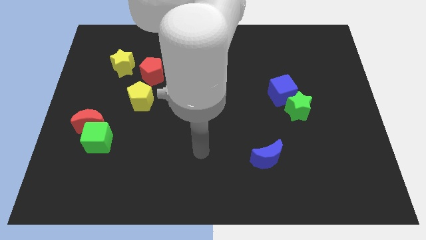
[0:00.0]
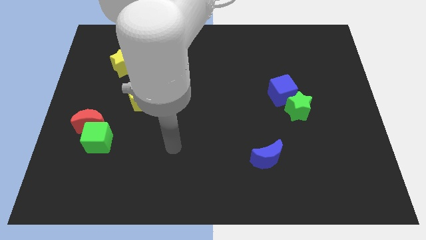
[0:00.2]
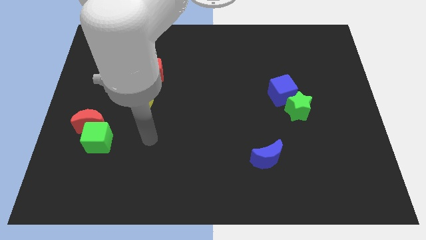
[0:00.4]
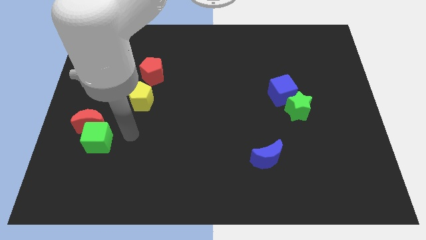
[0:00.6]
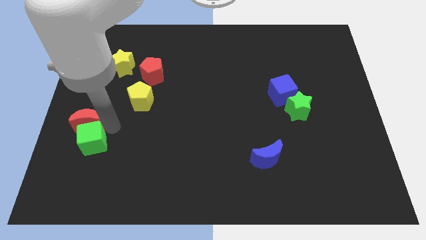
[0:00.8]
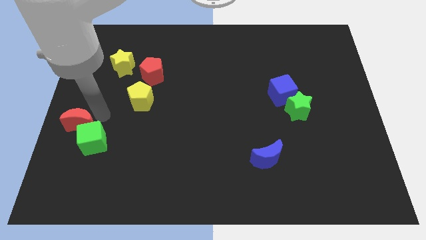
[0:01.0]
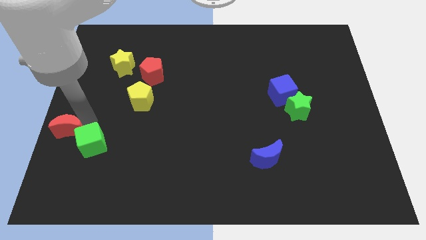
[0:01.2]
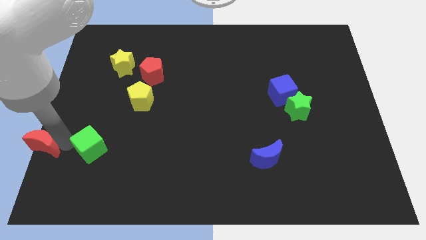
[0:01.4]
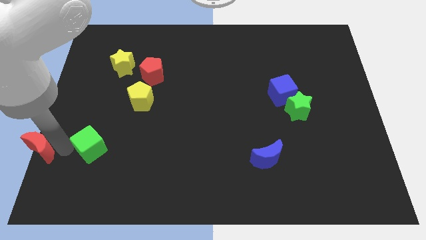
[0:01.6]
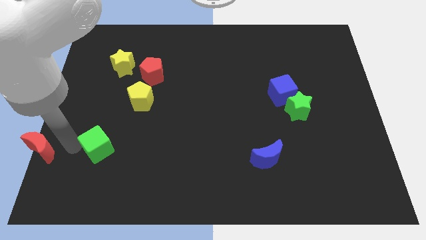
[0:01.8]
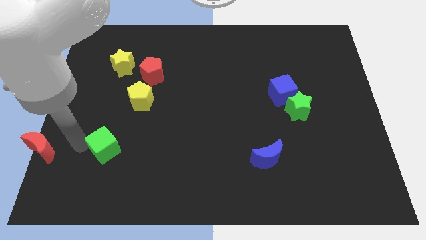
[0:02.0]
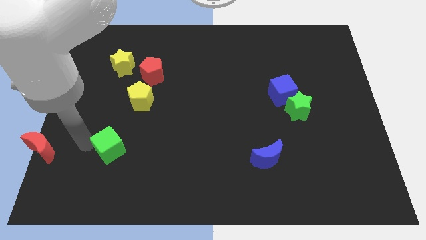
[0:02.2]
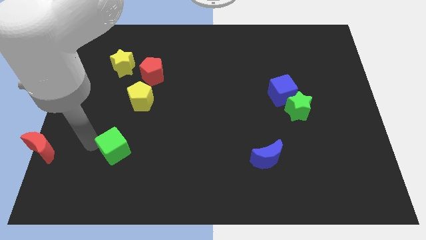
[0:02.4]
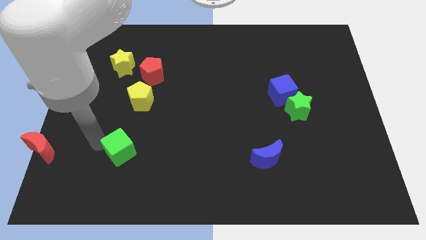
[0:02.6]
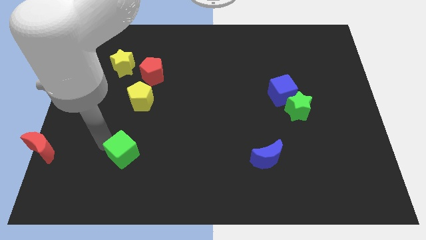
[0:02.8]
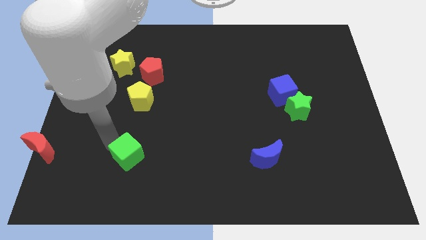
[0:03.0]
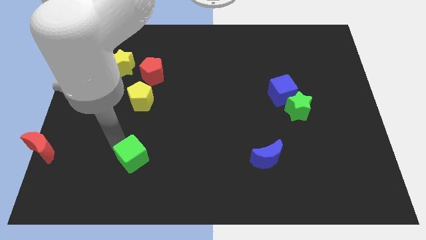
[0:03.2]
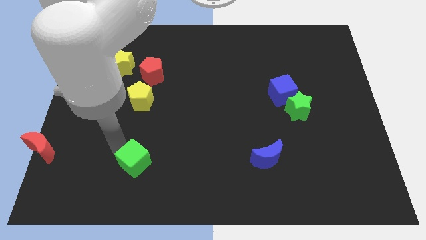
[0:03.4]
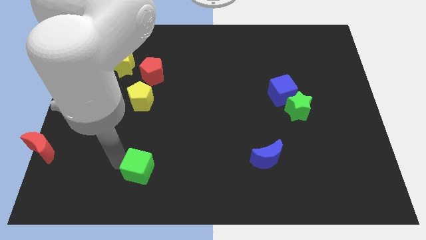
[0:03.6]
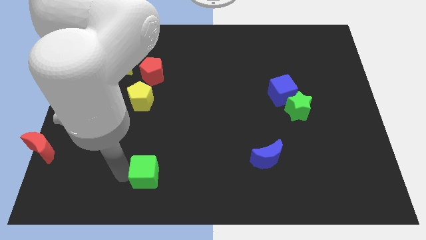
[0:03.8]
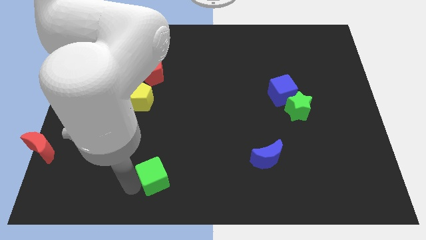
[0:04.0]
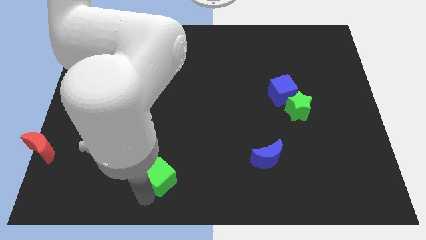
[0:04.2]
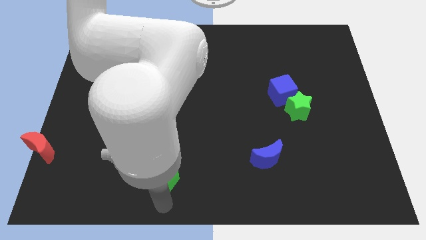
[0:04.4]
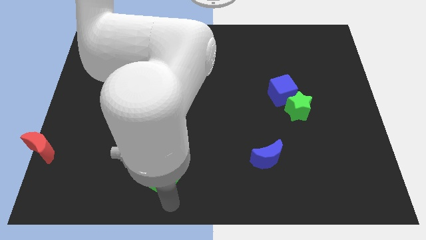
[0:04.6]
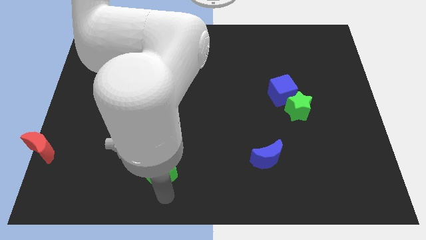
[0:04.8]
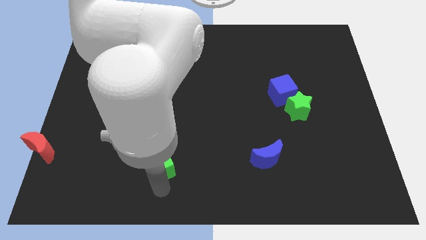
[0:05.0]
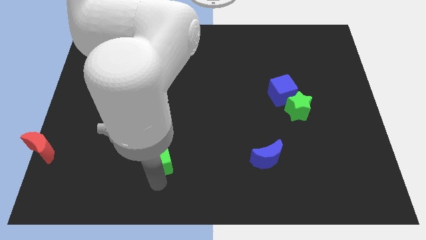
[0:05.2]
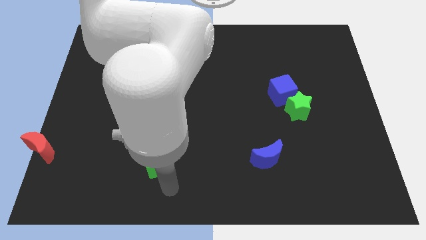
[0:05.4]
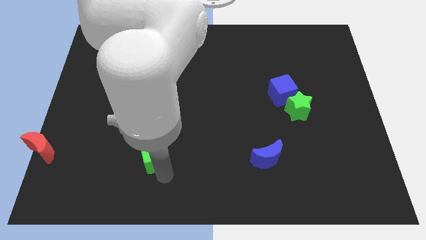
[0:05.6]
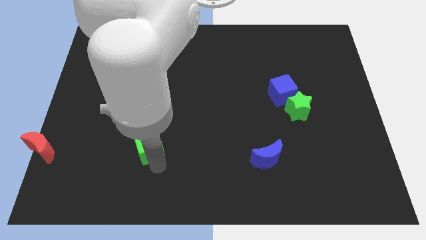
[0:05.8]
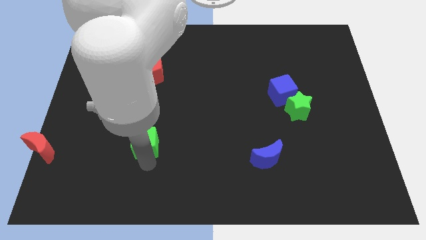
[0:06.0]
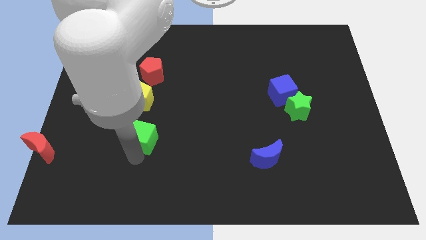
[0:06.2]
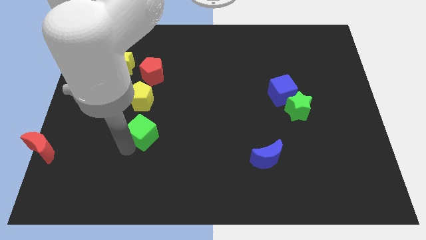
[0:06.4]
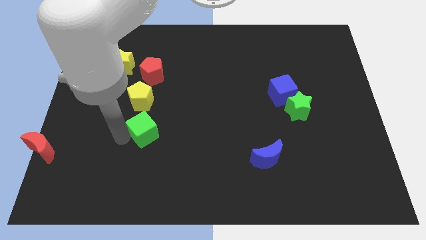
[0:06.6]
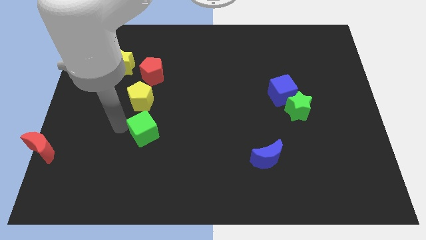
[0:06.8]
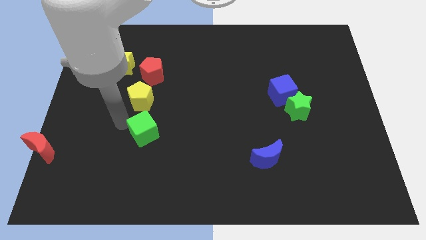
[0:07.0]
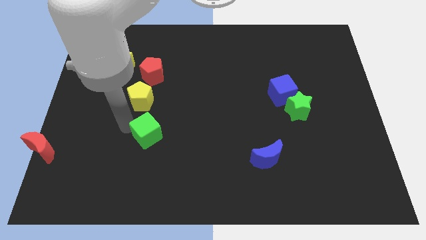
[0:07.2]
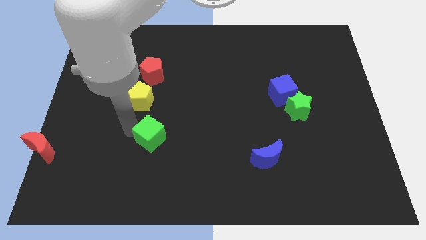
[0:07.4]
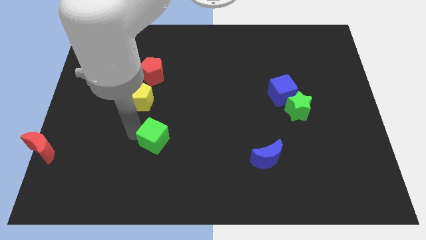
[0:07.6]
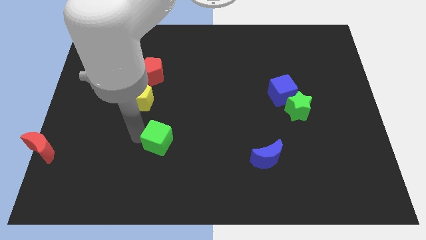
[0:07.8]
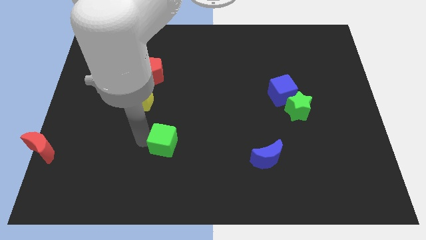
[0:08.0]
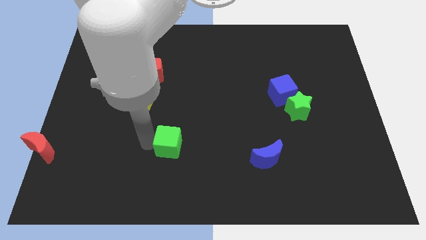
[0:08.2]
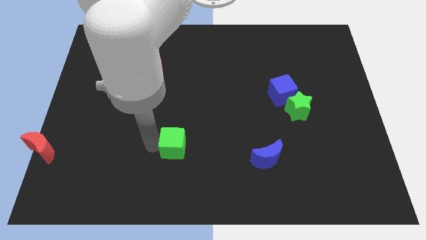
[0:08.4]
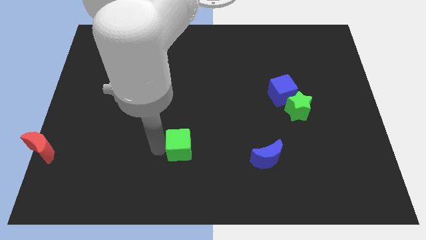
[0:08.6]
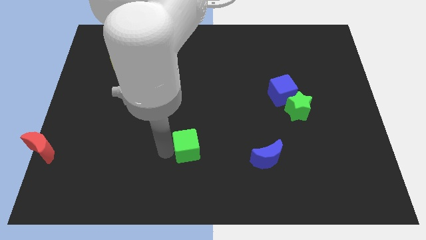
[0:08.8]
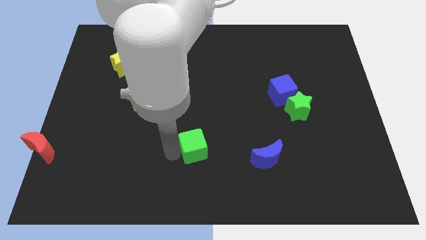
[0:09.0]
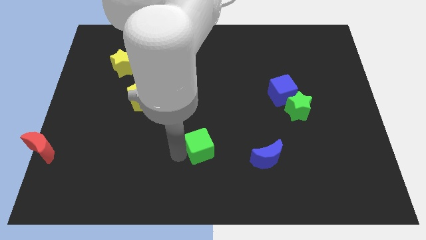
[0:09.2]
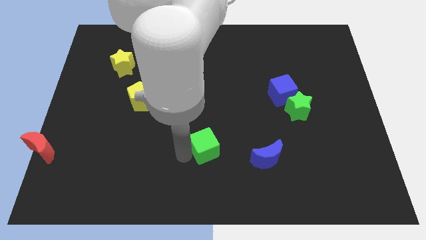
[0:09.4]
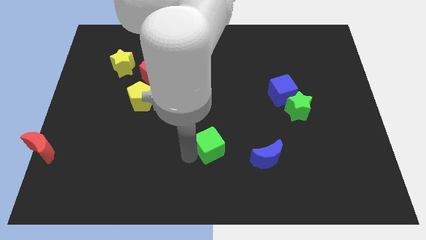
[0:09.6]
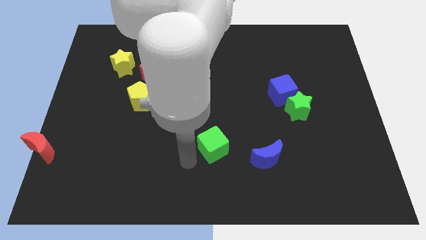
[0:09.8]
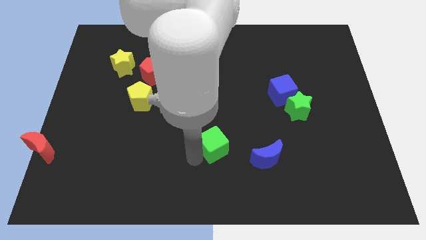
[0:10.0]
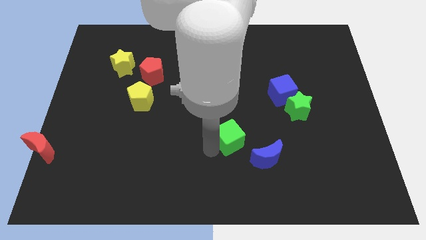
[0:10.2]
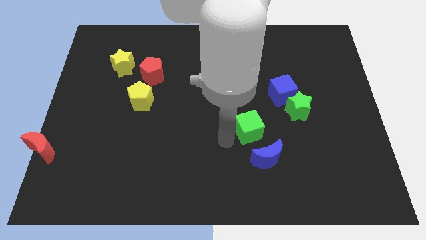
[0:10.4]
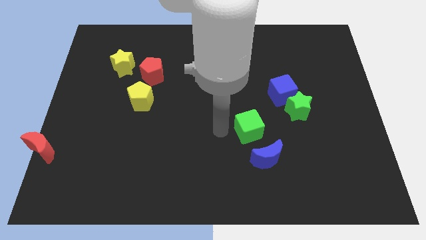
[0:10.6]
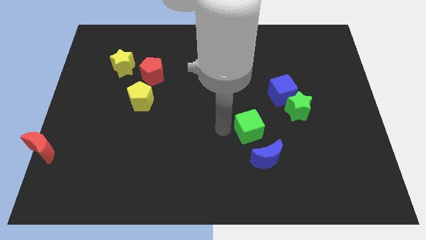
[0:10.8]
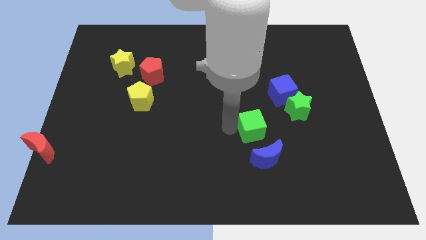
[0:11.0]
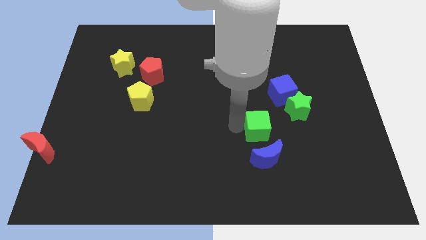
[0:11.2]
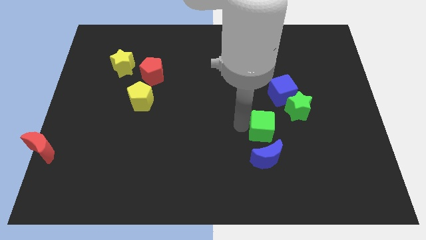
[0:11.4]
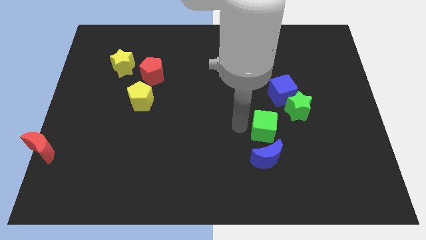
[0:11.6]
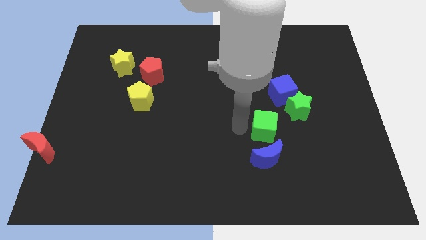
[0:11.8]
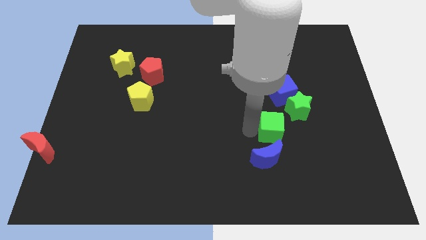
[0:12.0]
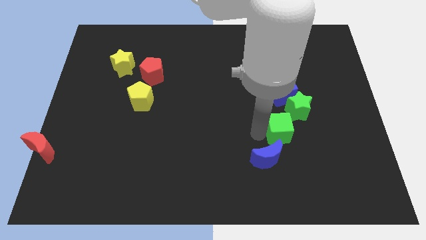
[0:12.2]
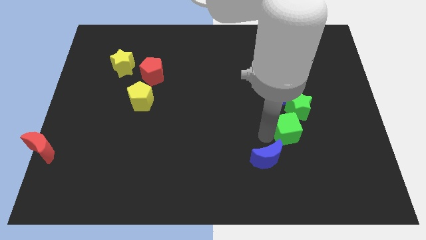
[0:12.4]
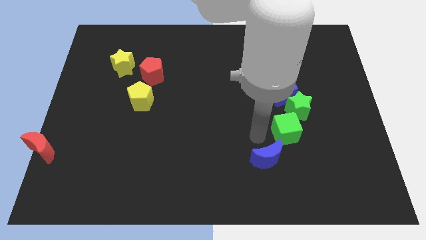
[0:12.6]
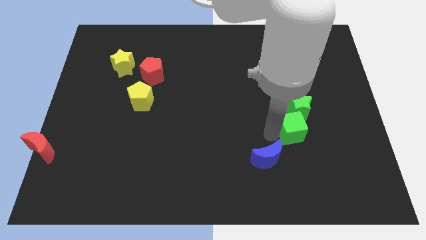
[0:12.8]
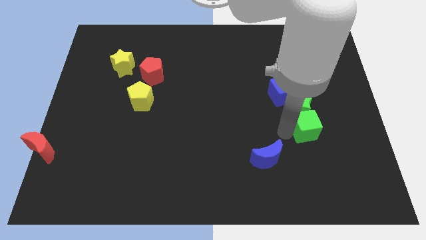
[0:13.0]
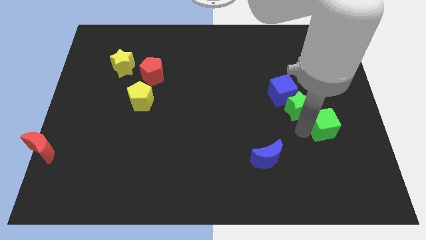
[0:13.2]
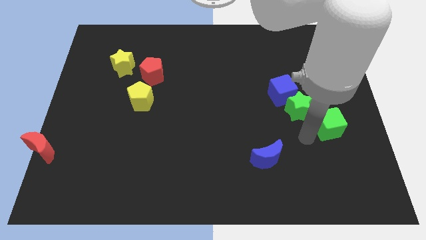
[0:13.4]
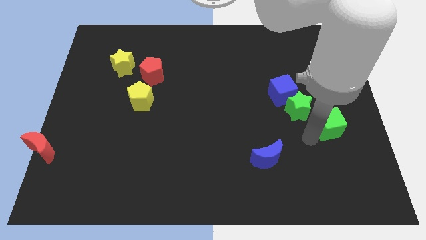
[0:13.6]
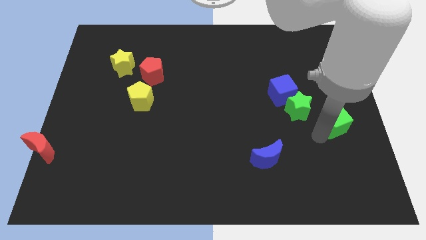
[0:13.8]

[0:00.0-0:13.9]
push the green cube to the right side of the board
